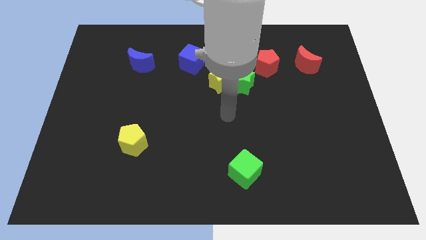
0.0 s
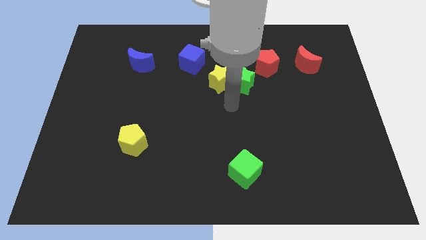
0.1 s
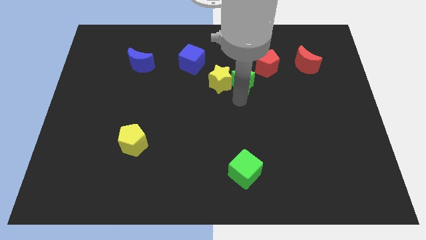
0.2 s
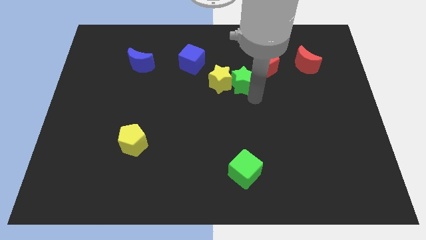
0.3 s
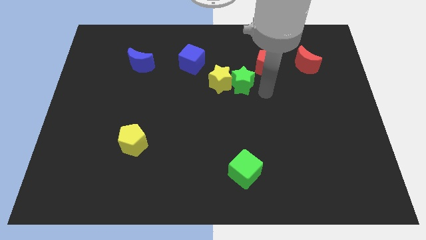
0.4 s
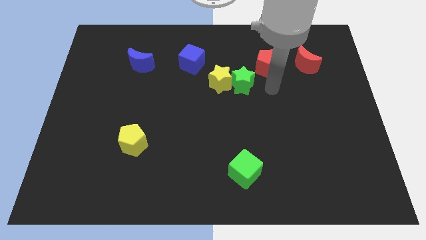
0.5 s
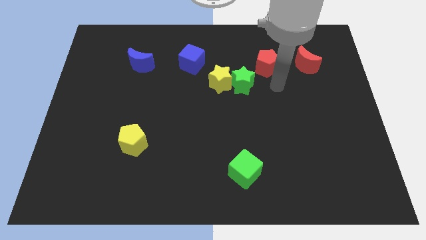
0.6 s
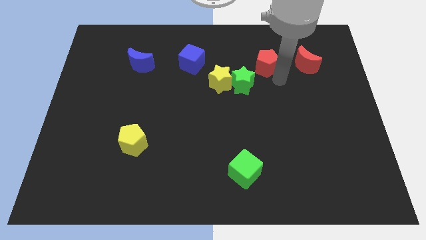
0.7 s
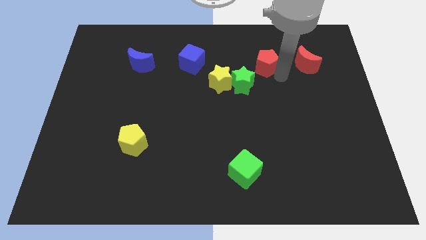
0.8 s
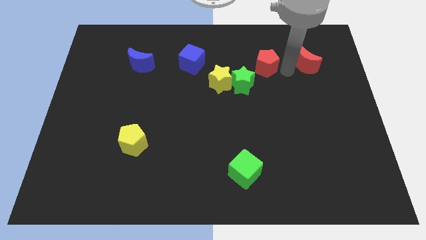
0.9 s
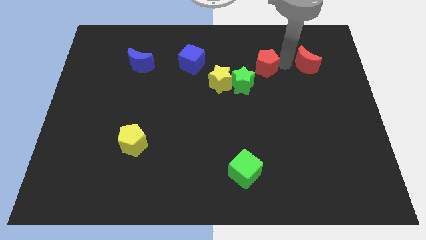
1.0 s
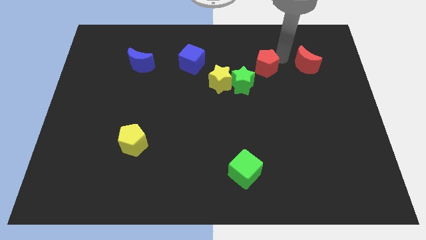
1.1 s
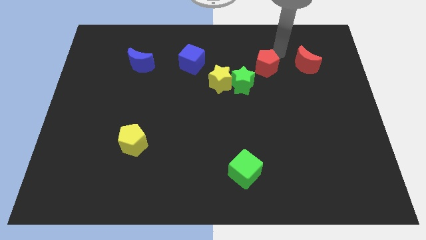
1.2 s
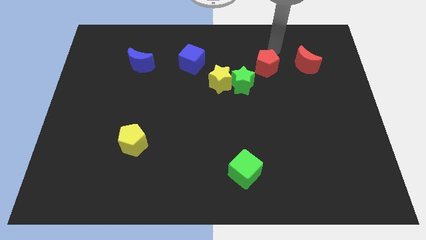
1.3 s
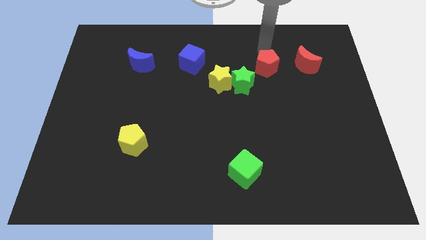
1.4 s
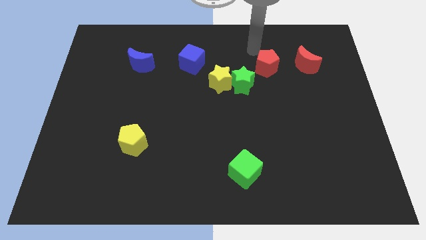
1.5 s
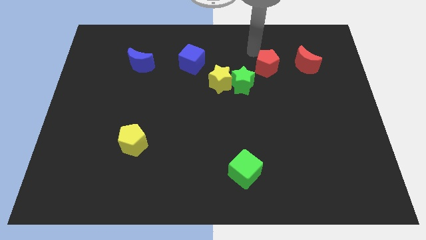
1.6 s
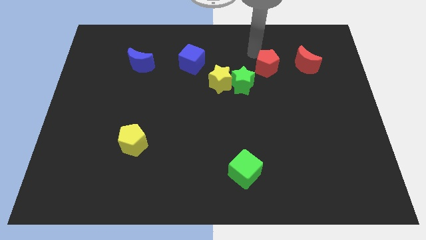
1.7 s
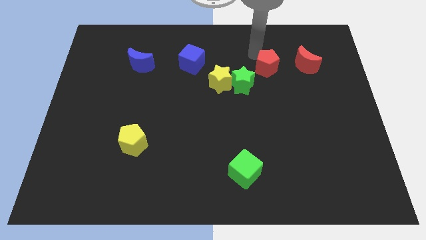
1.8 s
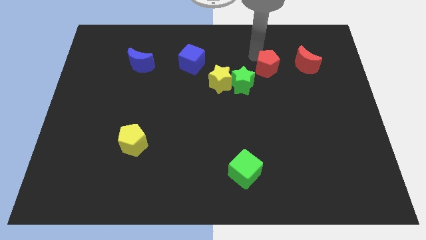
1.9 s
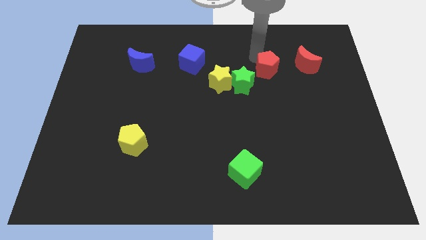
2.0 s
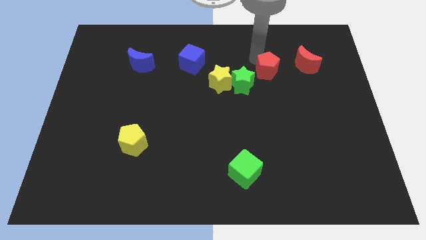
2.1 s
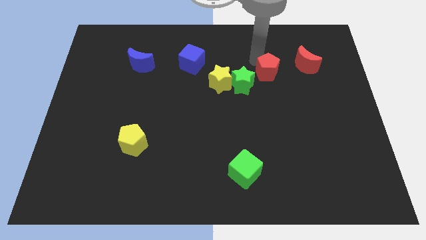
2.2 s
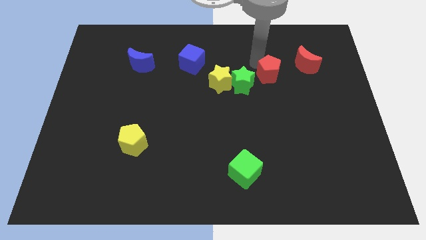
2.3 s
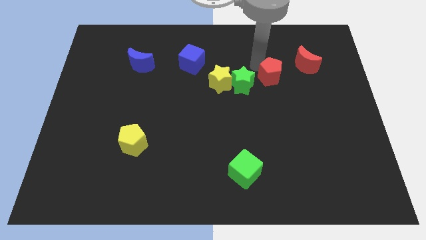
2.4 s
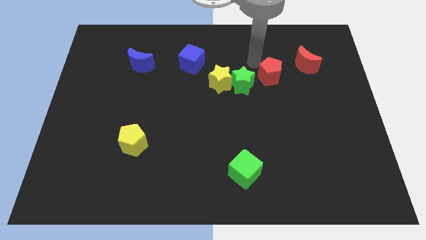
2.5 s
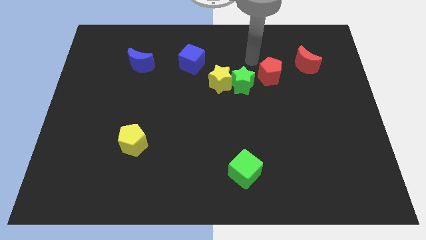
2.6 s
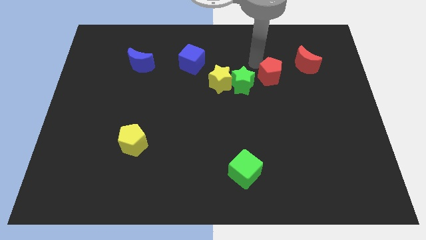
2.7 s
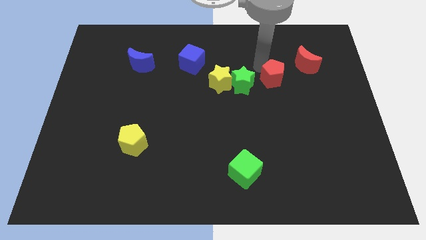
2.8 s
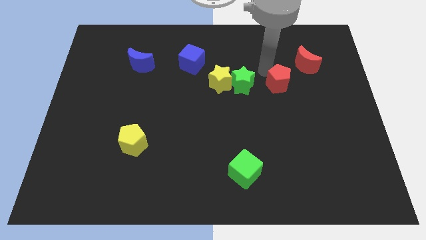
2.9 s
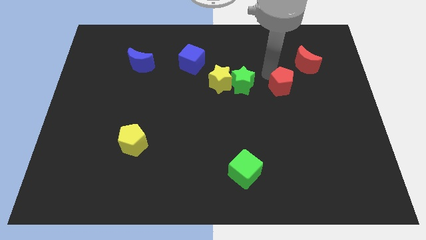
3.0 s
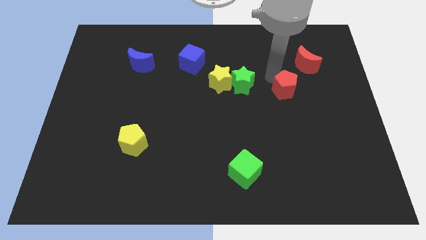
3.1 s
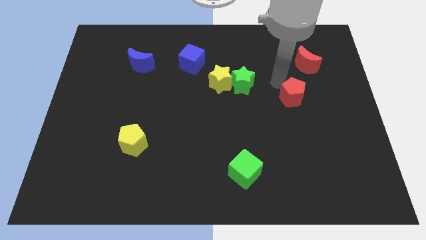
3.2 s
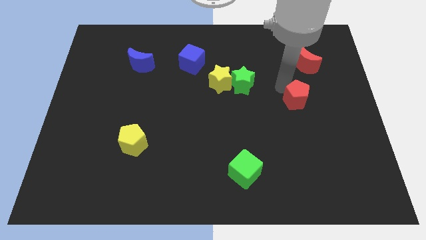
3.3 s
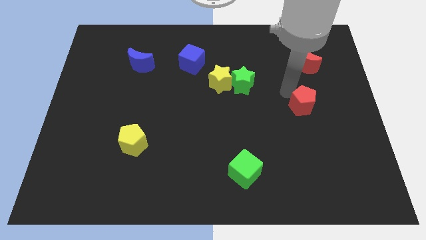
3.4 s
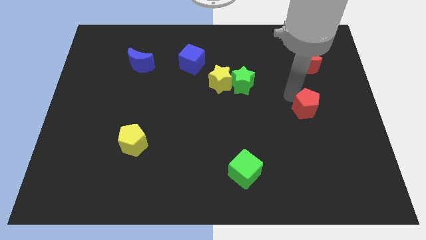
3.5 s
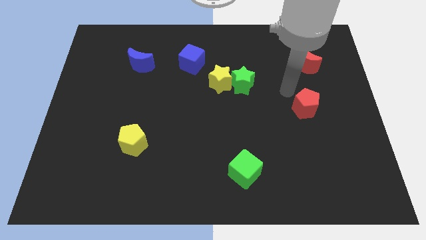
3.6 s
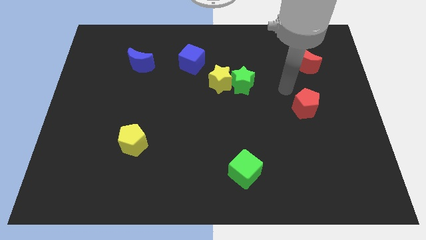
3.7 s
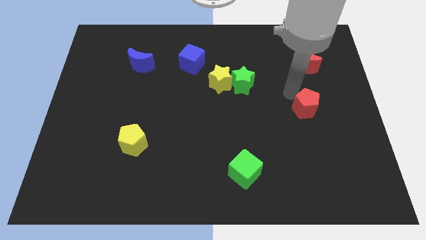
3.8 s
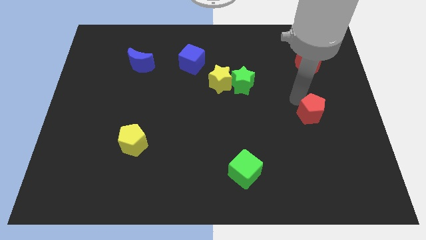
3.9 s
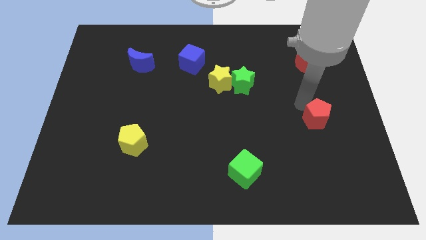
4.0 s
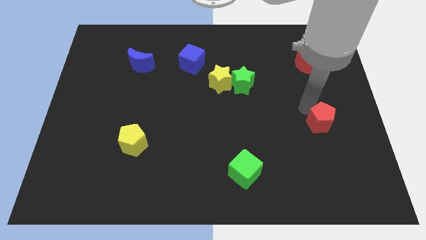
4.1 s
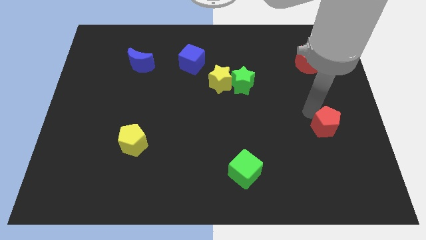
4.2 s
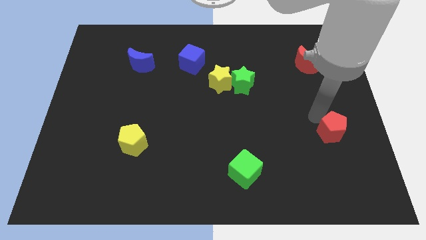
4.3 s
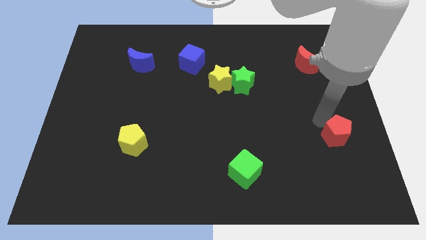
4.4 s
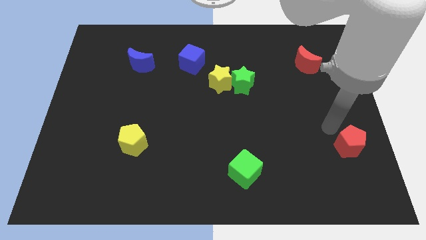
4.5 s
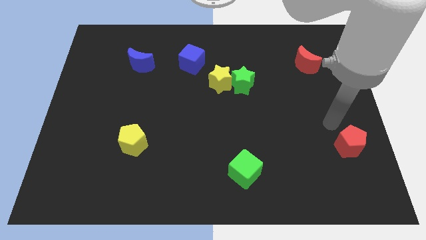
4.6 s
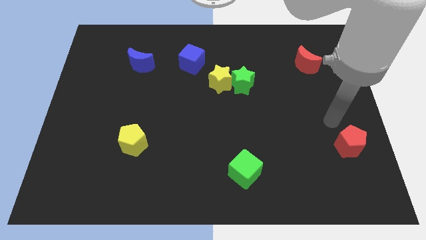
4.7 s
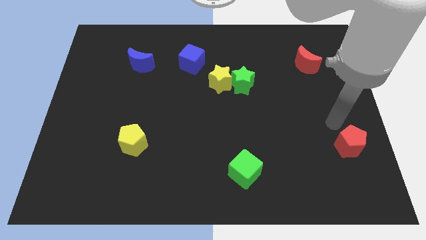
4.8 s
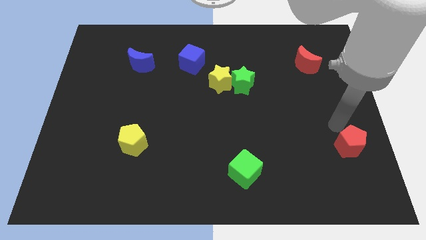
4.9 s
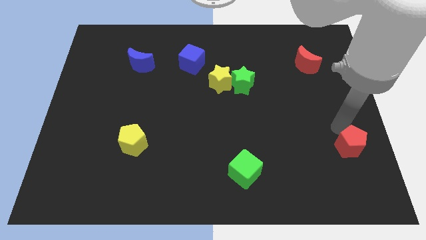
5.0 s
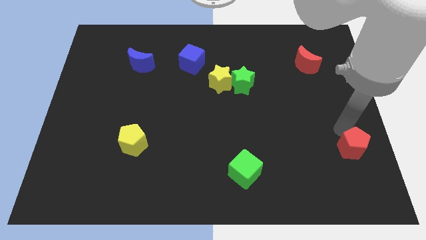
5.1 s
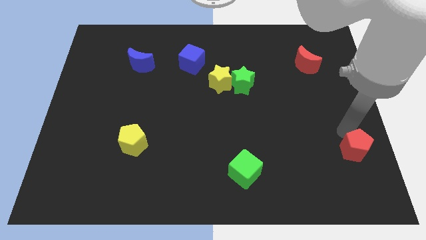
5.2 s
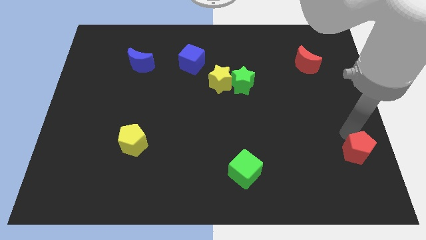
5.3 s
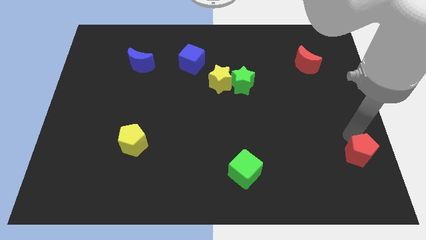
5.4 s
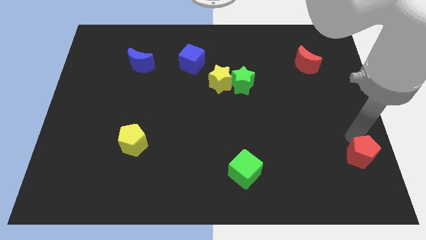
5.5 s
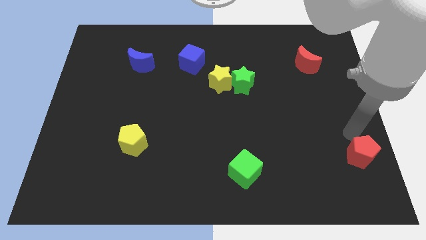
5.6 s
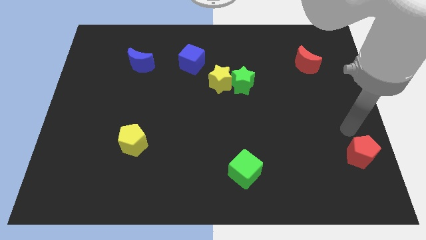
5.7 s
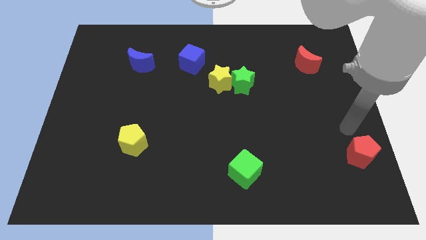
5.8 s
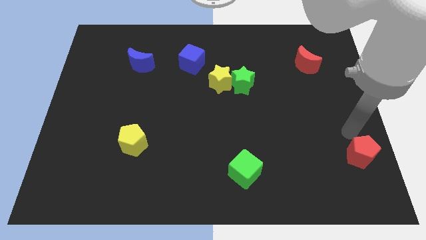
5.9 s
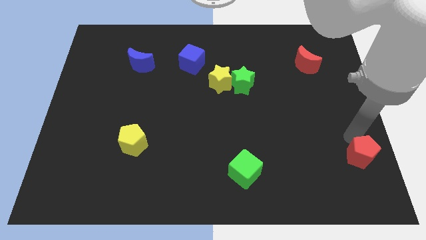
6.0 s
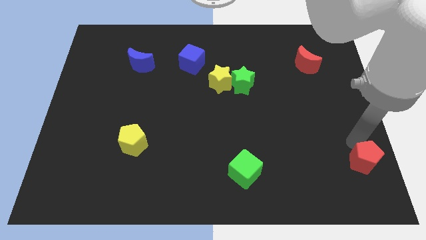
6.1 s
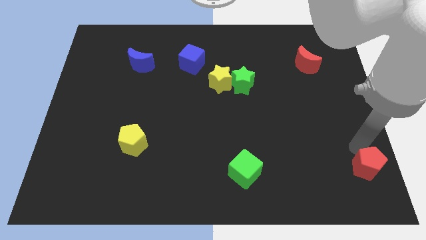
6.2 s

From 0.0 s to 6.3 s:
push the red pentagon to the bottom right corner
